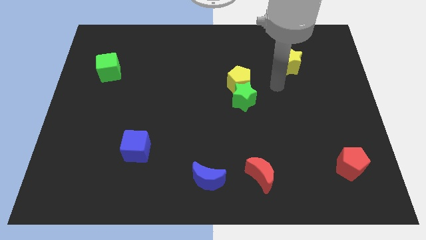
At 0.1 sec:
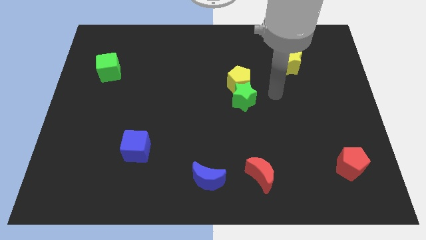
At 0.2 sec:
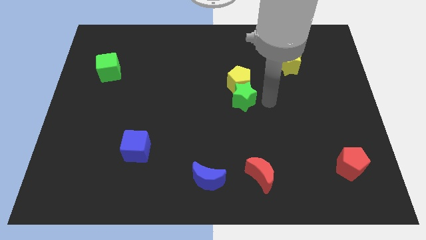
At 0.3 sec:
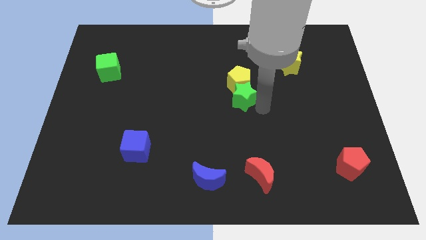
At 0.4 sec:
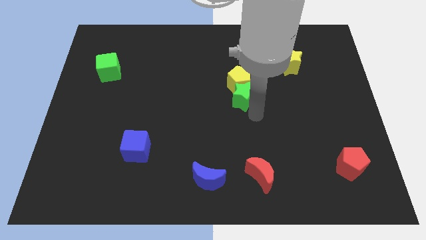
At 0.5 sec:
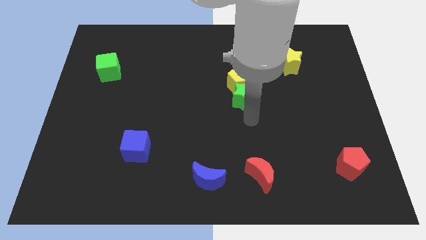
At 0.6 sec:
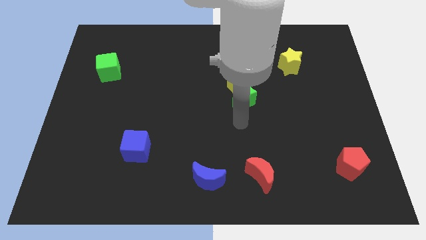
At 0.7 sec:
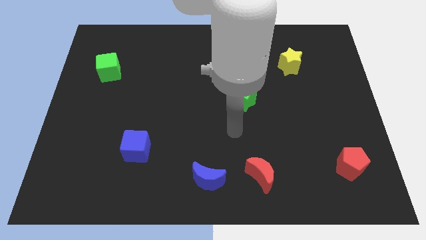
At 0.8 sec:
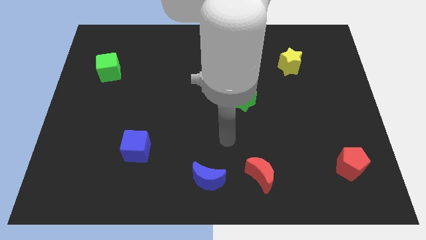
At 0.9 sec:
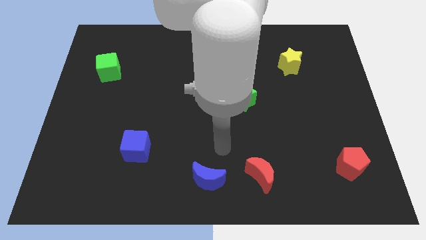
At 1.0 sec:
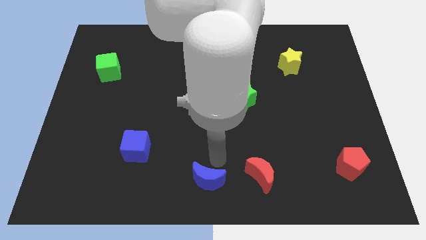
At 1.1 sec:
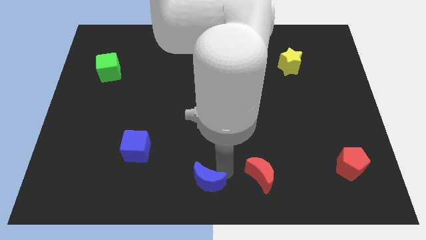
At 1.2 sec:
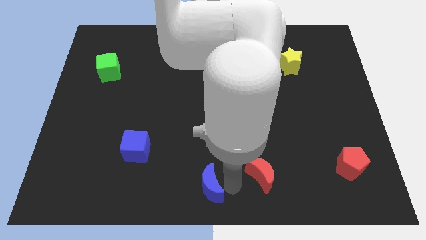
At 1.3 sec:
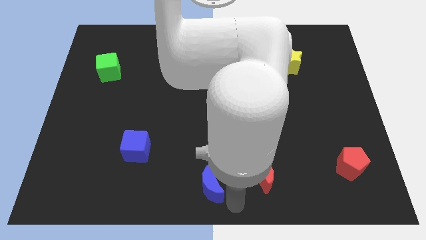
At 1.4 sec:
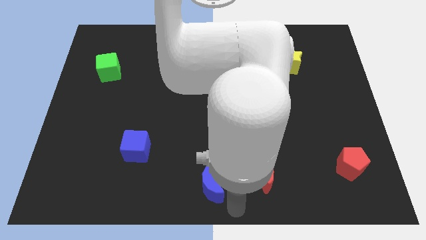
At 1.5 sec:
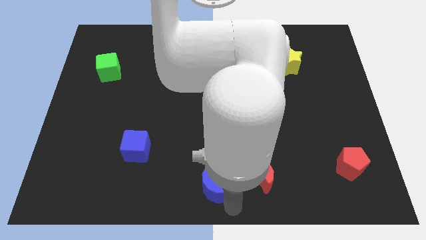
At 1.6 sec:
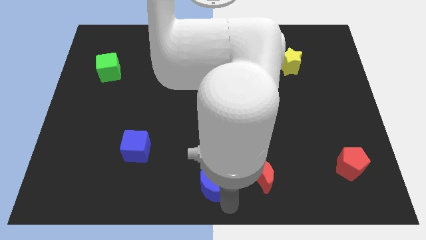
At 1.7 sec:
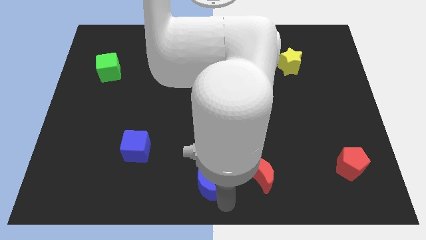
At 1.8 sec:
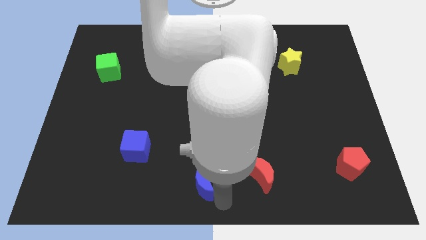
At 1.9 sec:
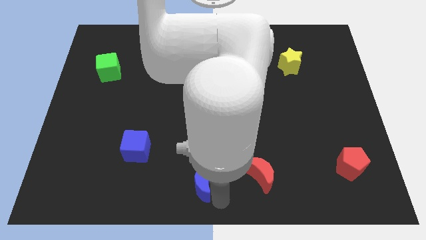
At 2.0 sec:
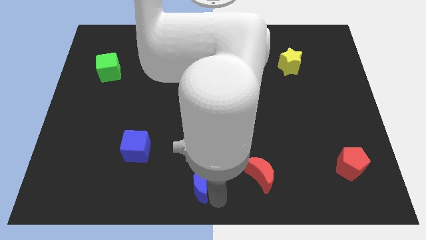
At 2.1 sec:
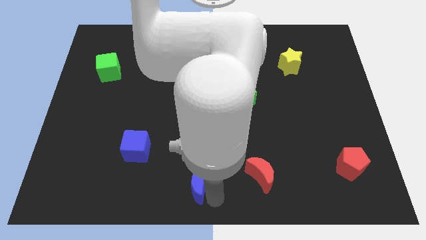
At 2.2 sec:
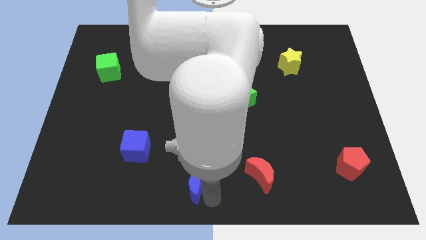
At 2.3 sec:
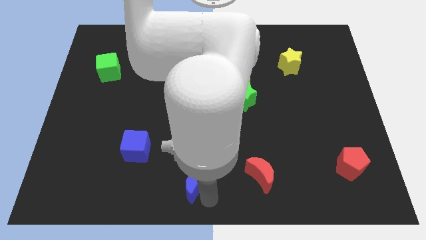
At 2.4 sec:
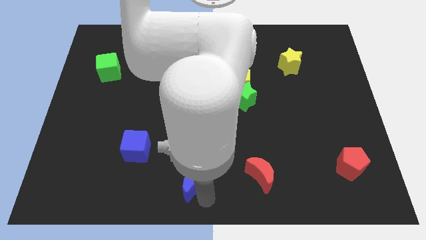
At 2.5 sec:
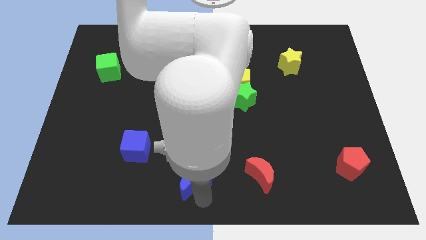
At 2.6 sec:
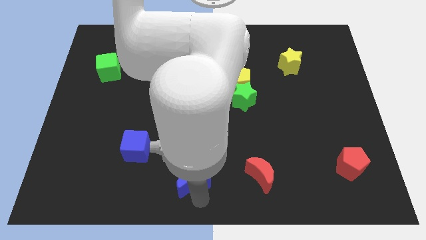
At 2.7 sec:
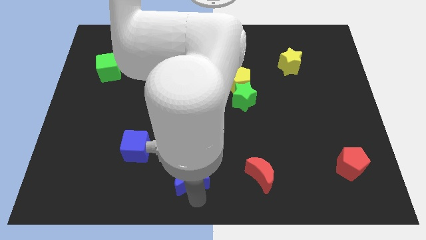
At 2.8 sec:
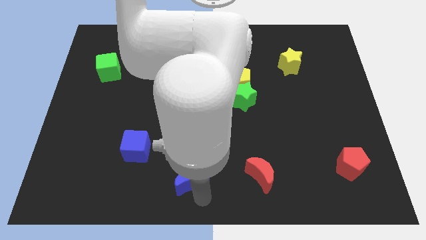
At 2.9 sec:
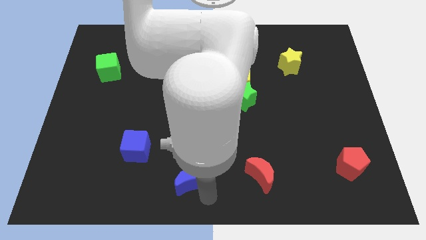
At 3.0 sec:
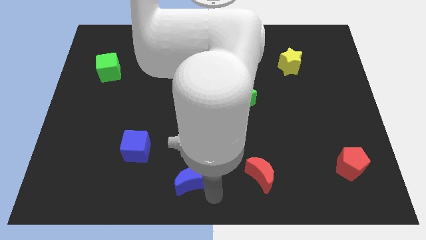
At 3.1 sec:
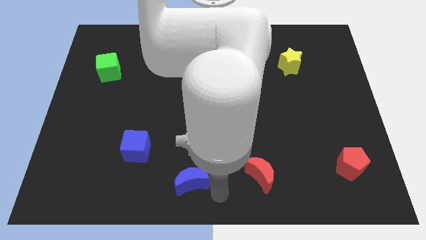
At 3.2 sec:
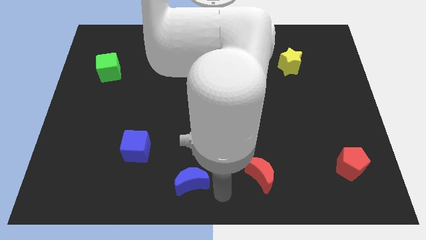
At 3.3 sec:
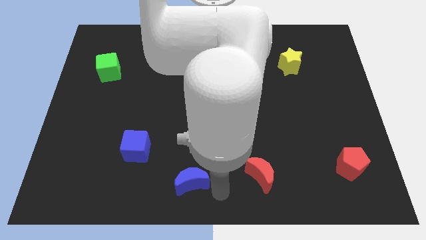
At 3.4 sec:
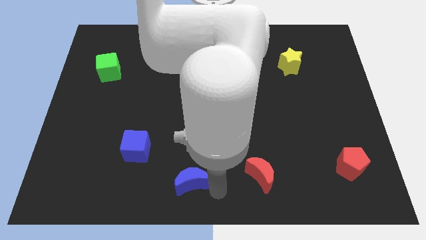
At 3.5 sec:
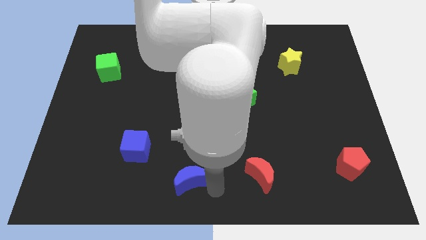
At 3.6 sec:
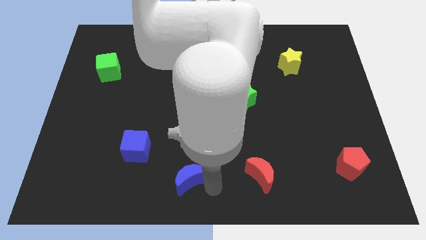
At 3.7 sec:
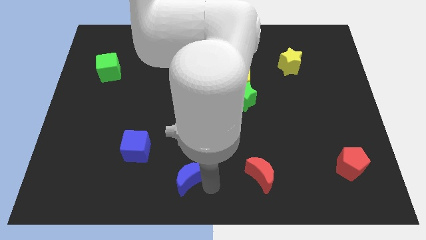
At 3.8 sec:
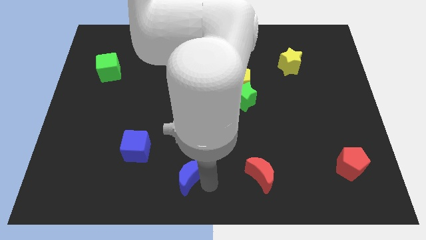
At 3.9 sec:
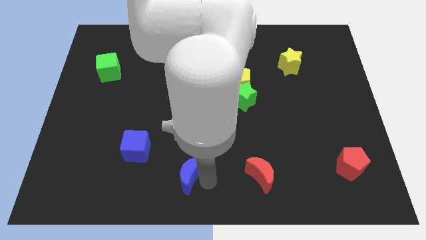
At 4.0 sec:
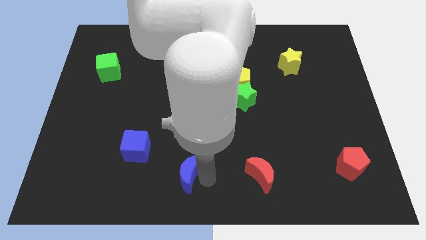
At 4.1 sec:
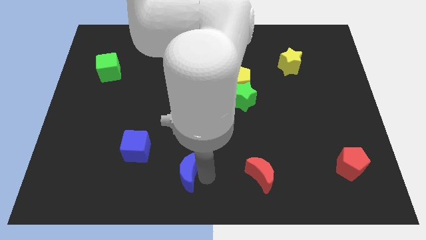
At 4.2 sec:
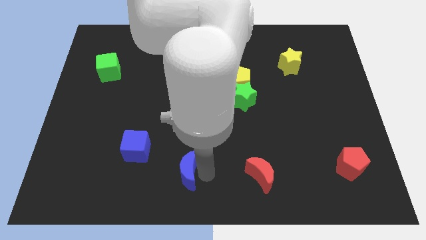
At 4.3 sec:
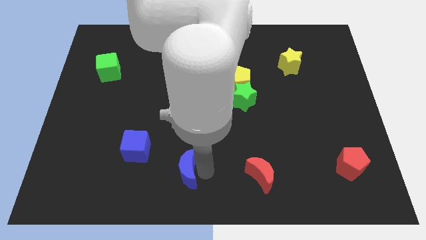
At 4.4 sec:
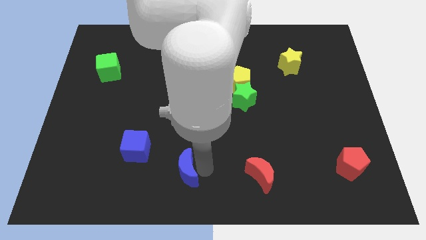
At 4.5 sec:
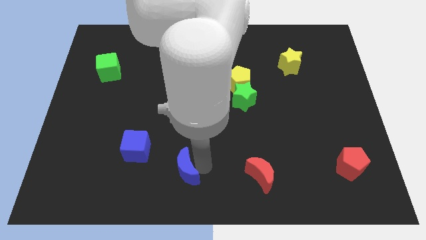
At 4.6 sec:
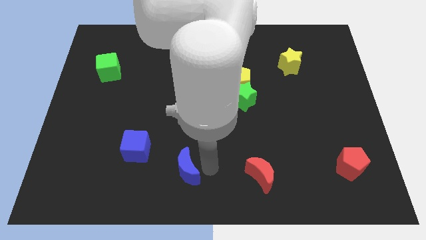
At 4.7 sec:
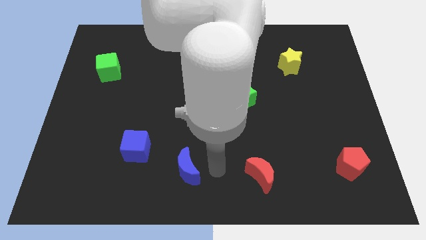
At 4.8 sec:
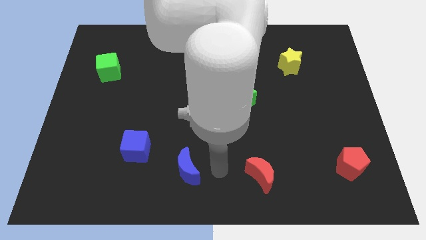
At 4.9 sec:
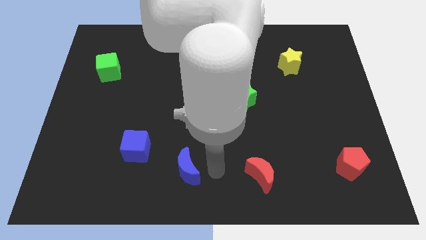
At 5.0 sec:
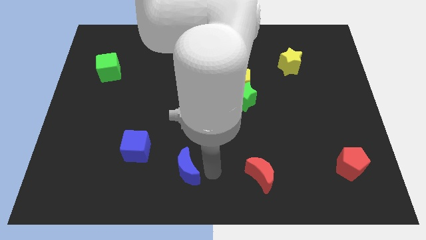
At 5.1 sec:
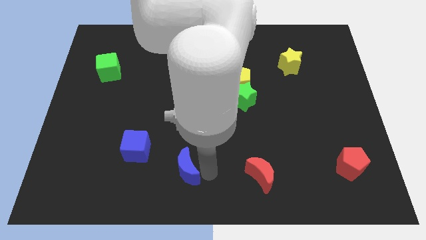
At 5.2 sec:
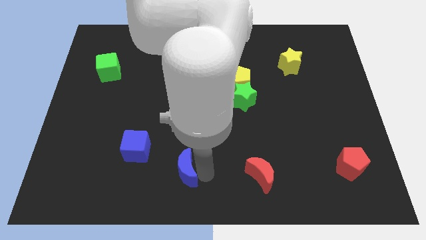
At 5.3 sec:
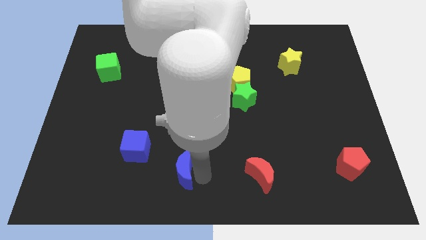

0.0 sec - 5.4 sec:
slide the blue moon to the bottom right side of the blue cube
